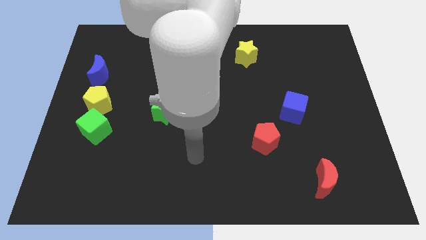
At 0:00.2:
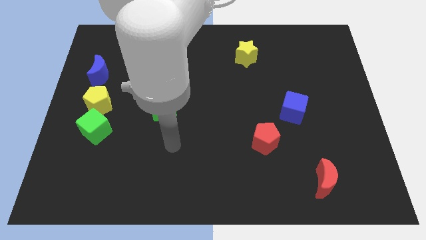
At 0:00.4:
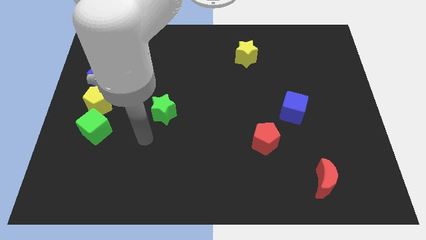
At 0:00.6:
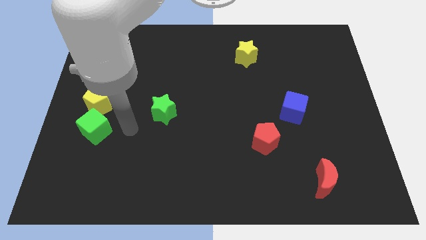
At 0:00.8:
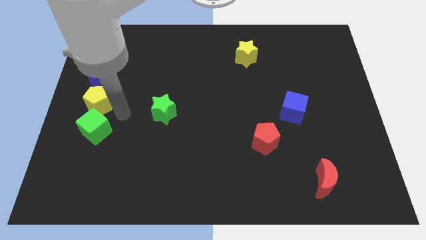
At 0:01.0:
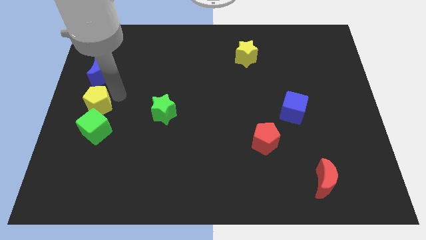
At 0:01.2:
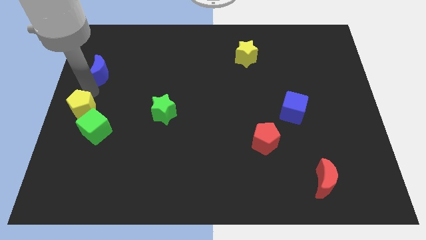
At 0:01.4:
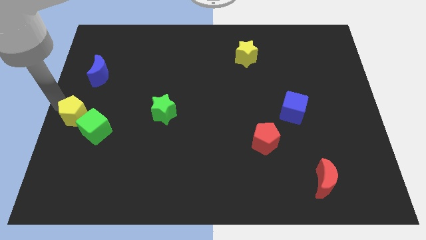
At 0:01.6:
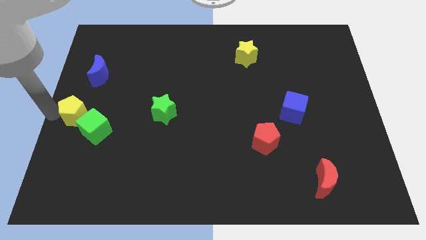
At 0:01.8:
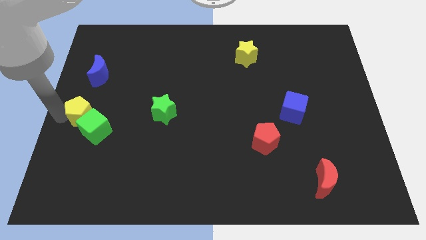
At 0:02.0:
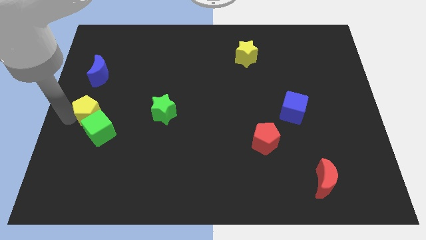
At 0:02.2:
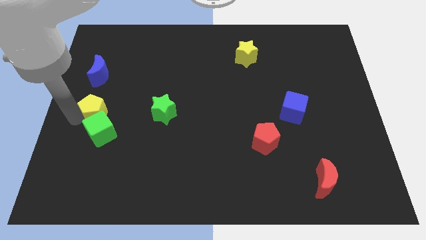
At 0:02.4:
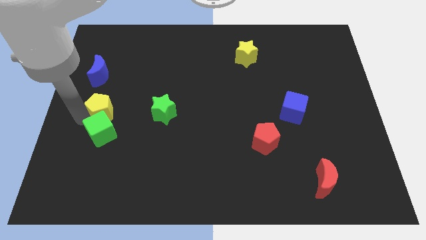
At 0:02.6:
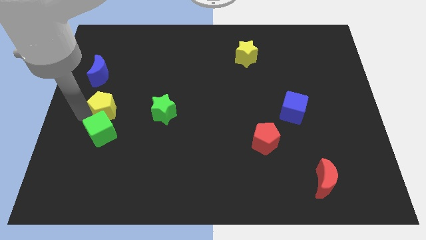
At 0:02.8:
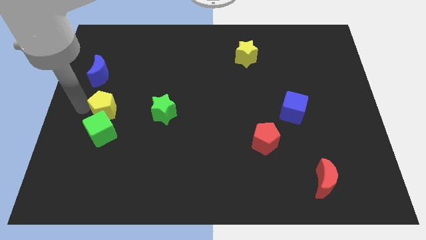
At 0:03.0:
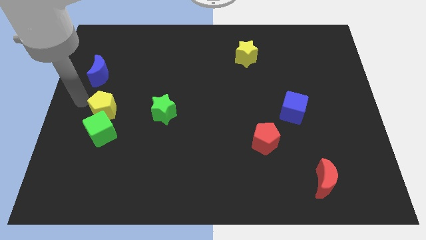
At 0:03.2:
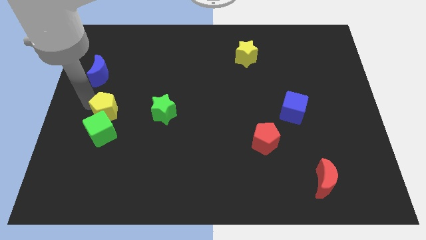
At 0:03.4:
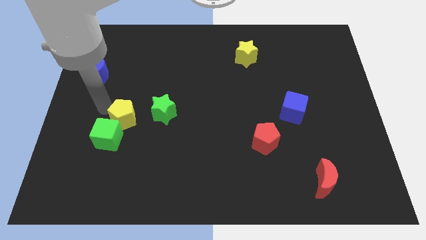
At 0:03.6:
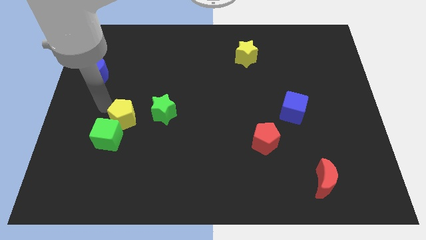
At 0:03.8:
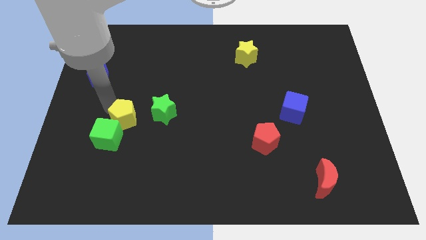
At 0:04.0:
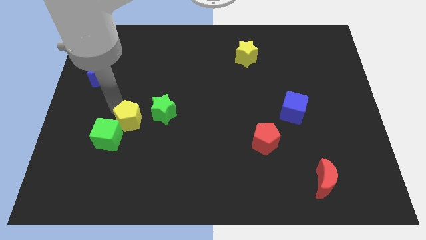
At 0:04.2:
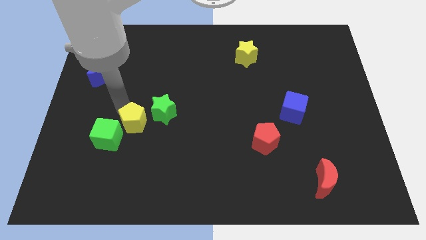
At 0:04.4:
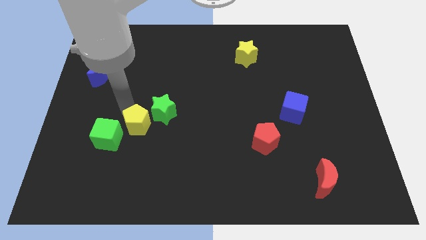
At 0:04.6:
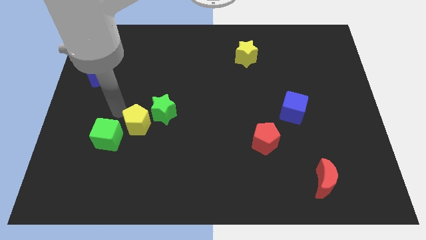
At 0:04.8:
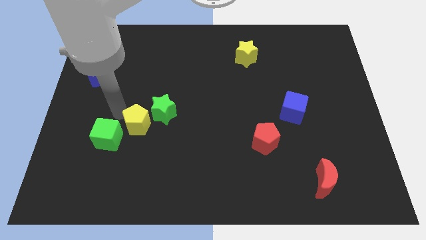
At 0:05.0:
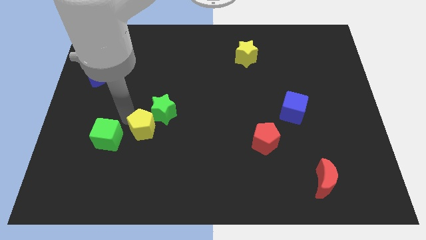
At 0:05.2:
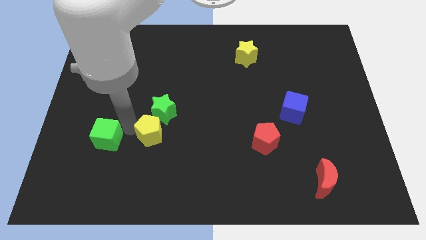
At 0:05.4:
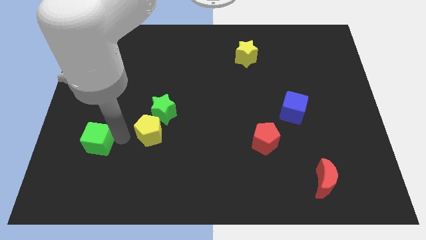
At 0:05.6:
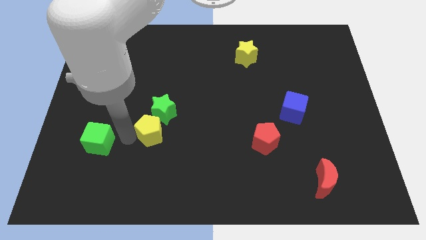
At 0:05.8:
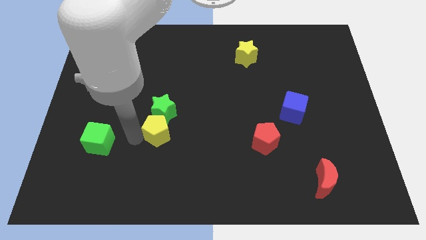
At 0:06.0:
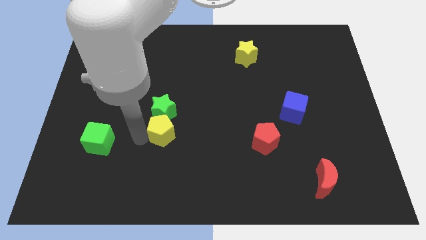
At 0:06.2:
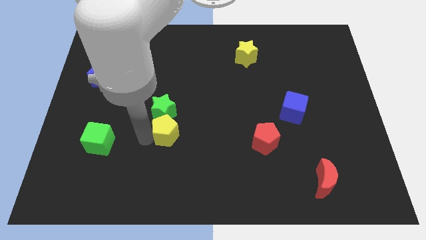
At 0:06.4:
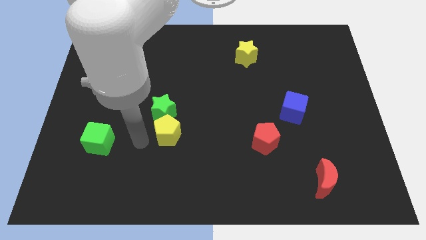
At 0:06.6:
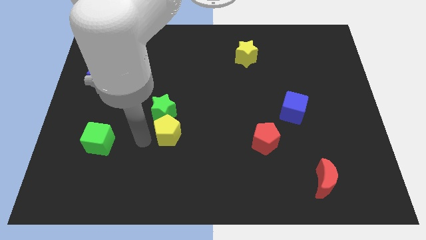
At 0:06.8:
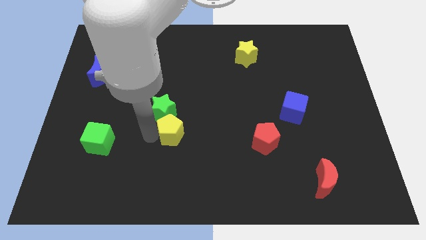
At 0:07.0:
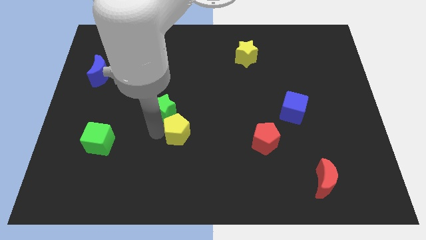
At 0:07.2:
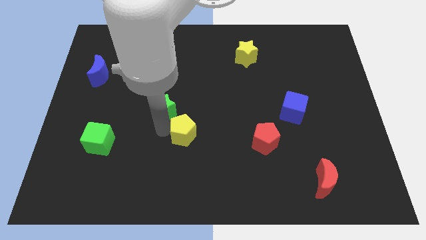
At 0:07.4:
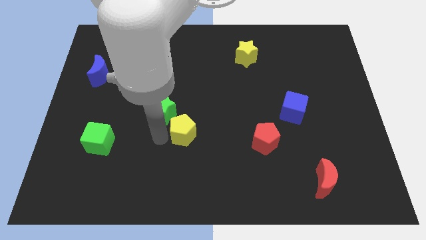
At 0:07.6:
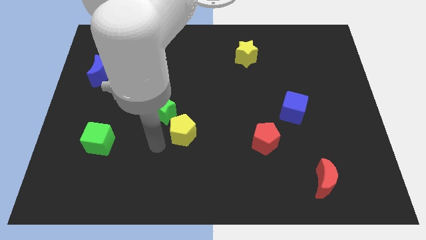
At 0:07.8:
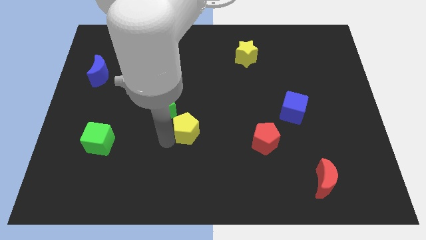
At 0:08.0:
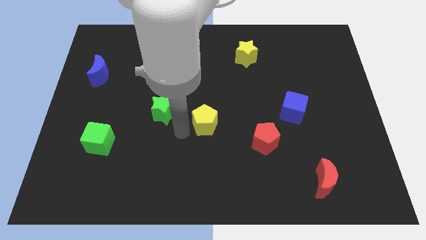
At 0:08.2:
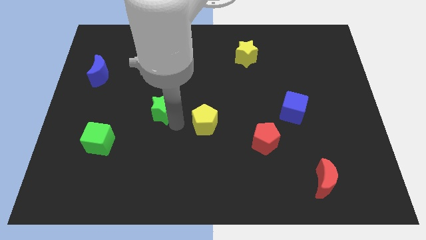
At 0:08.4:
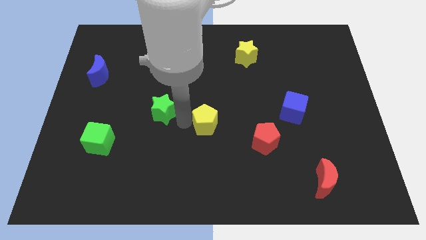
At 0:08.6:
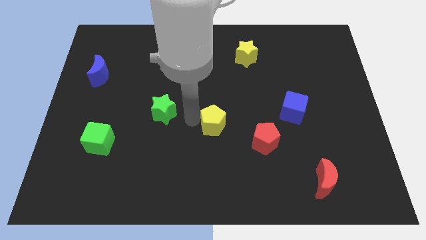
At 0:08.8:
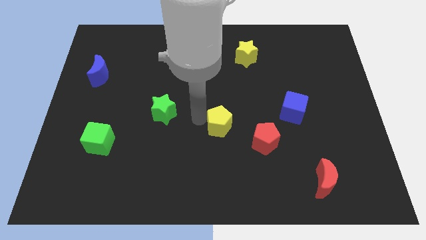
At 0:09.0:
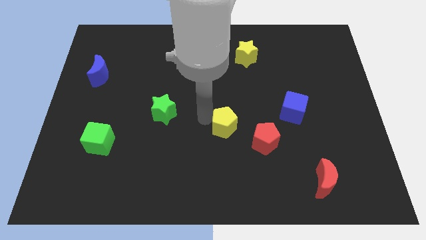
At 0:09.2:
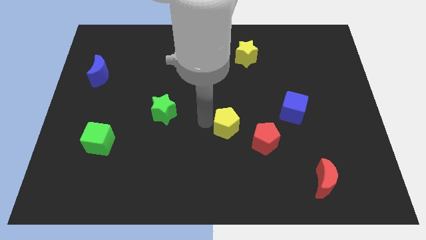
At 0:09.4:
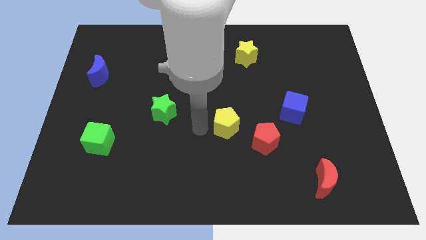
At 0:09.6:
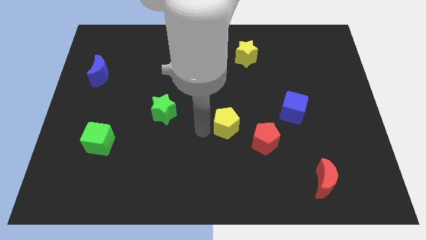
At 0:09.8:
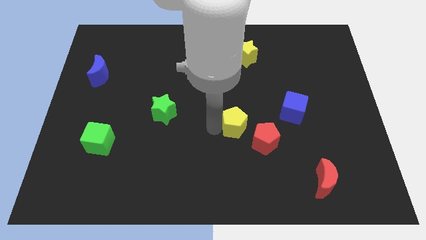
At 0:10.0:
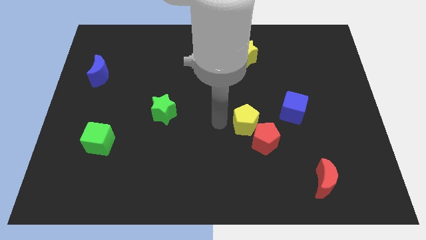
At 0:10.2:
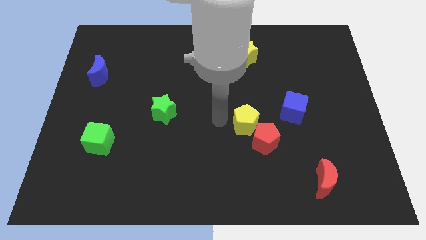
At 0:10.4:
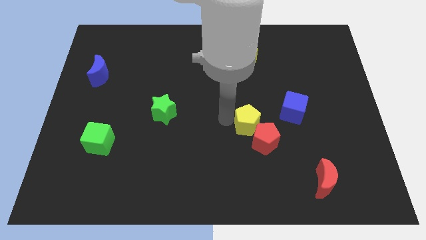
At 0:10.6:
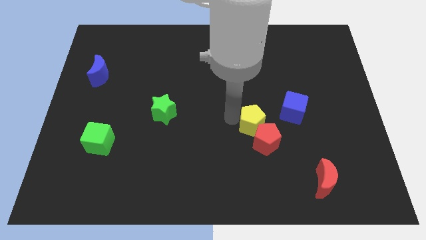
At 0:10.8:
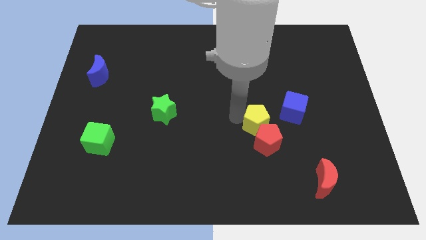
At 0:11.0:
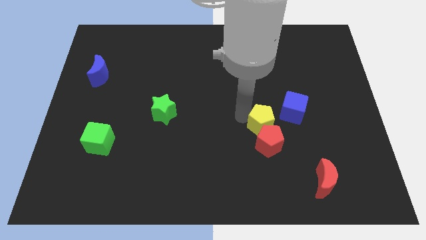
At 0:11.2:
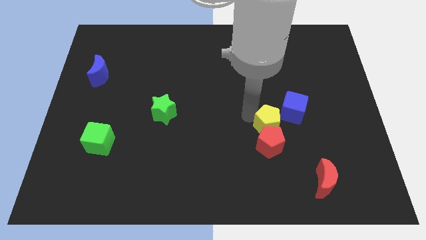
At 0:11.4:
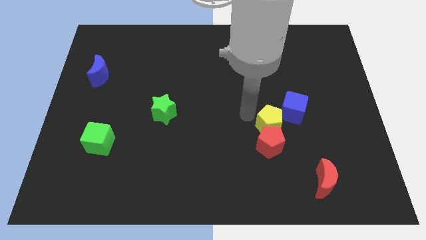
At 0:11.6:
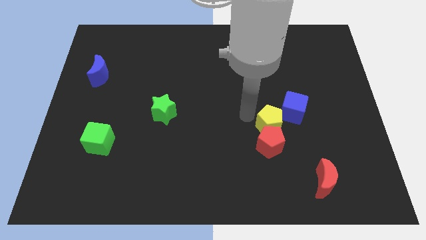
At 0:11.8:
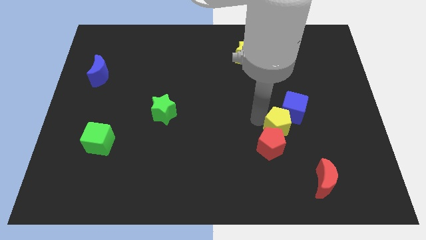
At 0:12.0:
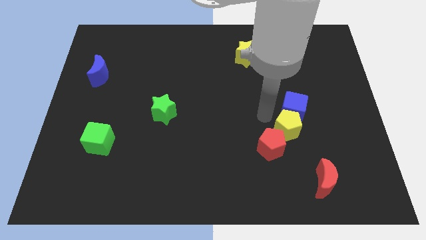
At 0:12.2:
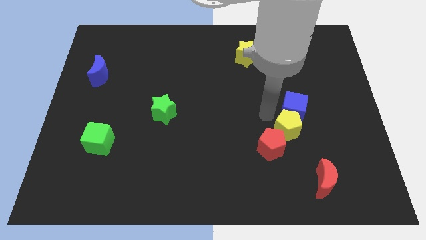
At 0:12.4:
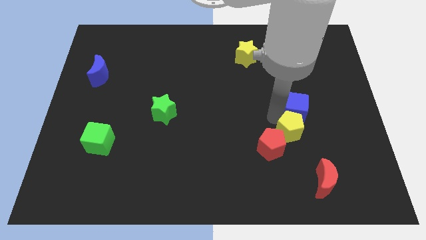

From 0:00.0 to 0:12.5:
push the yellow pentagon just right of the red pentagon

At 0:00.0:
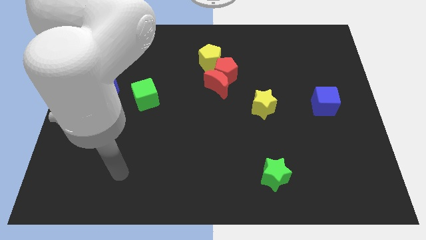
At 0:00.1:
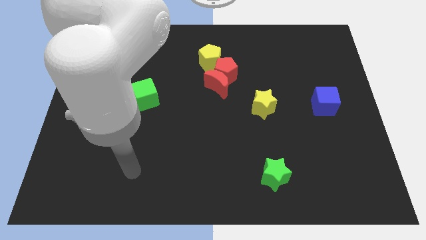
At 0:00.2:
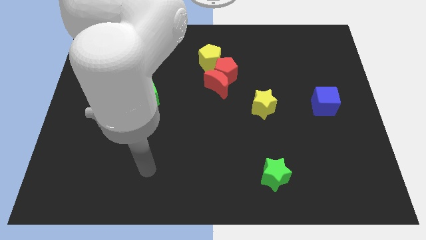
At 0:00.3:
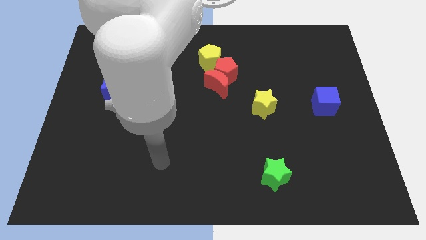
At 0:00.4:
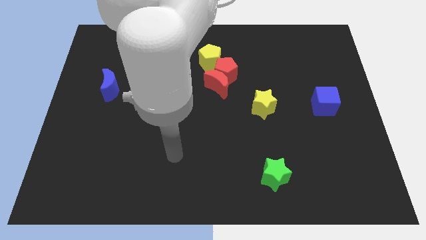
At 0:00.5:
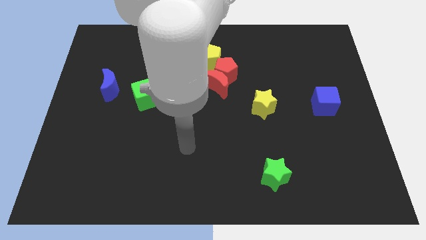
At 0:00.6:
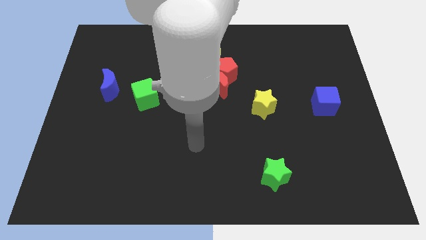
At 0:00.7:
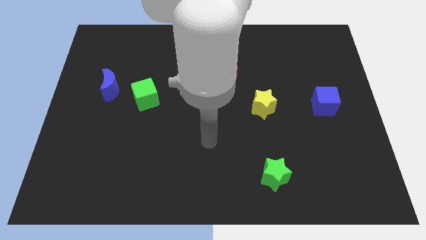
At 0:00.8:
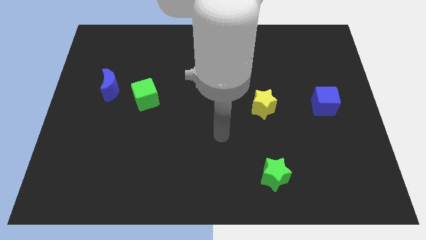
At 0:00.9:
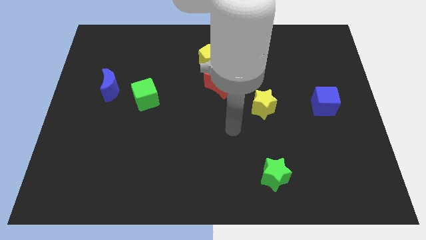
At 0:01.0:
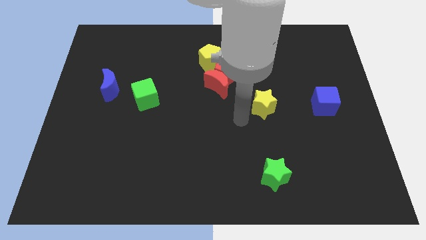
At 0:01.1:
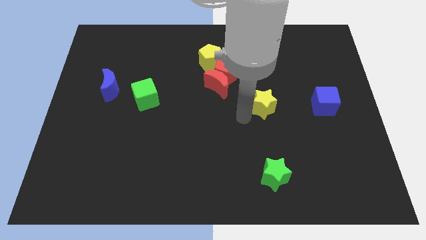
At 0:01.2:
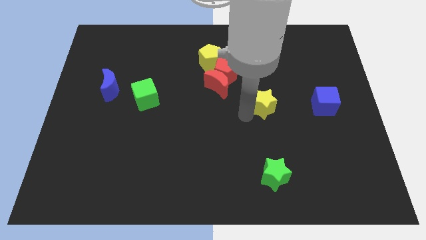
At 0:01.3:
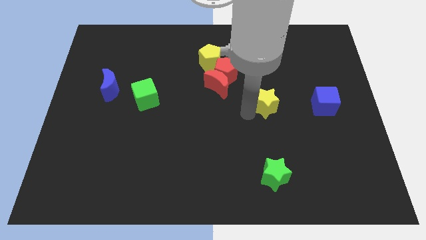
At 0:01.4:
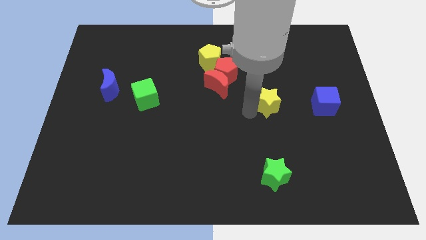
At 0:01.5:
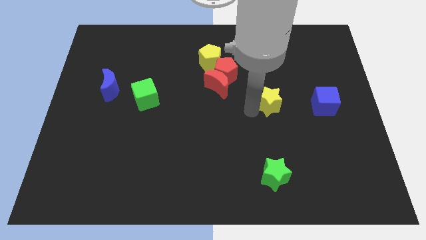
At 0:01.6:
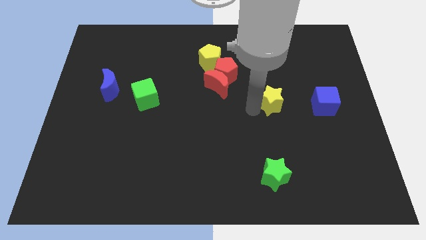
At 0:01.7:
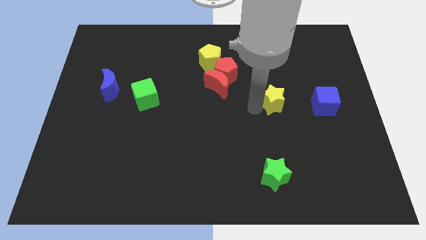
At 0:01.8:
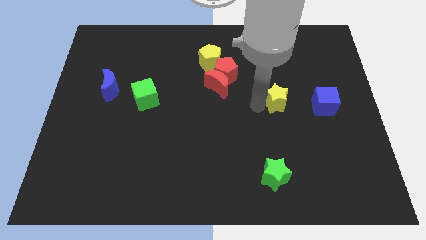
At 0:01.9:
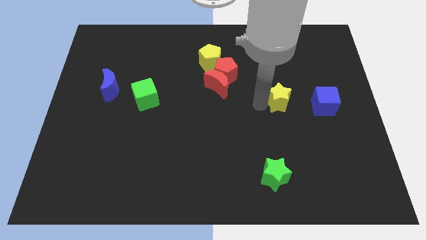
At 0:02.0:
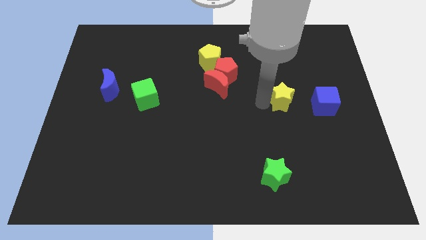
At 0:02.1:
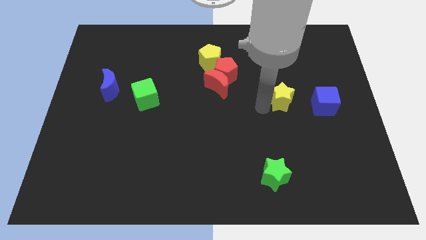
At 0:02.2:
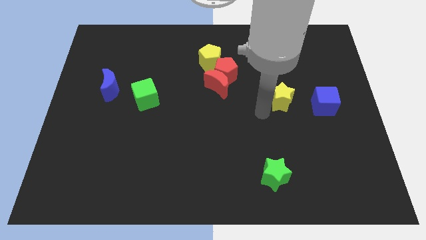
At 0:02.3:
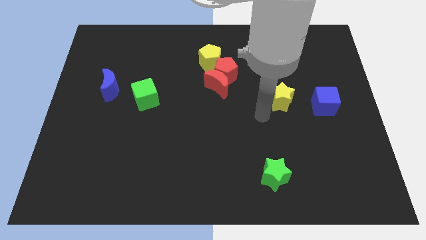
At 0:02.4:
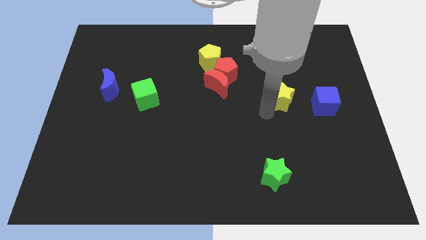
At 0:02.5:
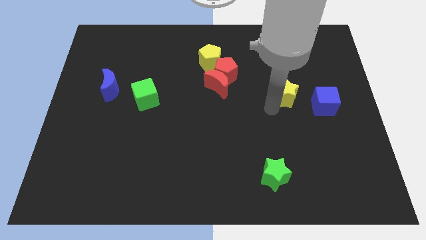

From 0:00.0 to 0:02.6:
slide the yellow star to the top left of the blue cube
